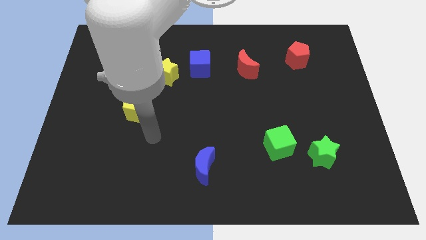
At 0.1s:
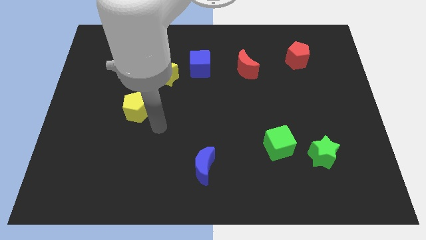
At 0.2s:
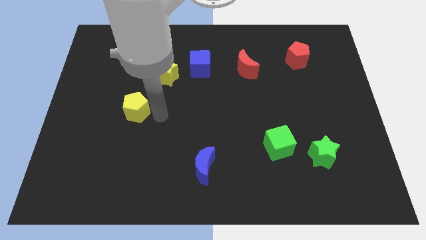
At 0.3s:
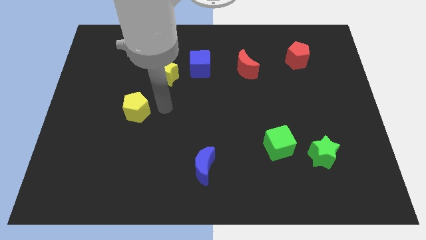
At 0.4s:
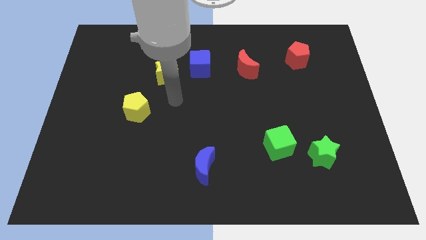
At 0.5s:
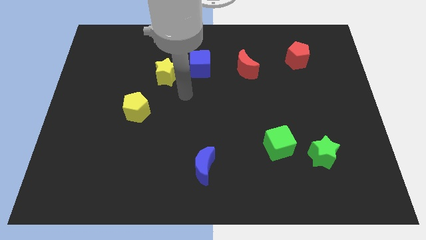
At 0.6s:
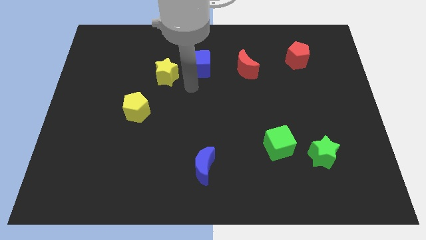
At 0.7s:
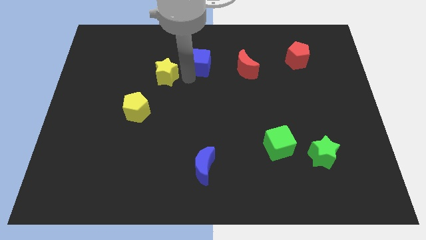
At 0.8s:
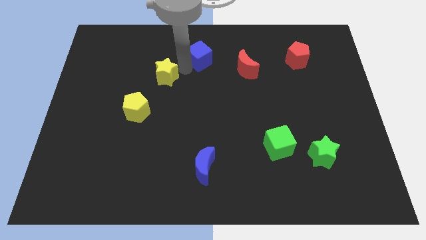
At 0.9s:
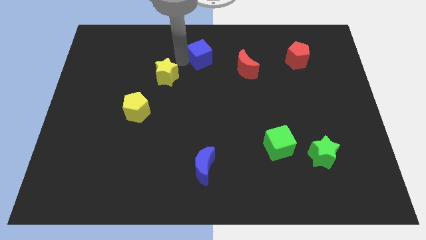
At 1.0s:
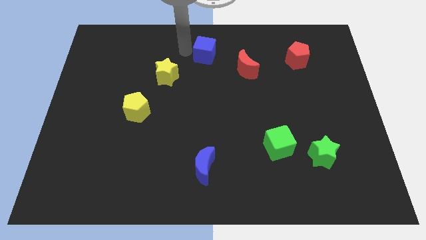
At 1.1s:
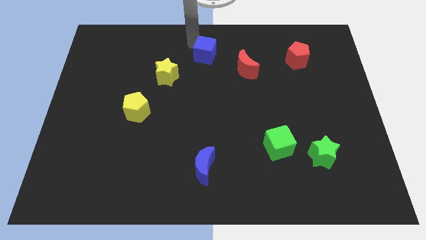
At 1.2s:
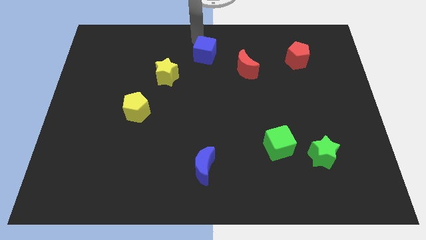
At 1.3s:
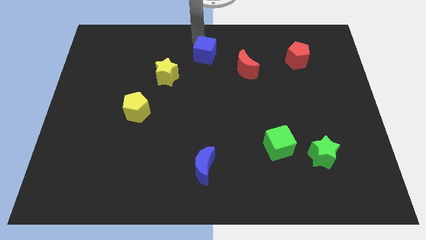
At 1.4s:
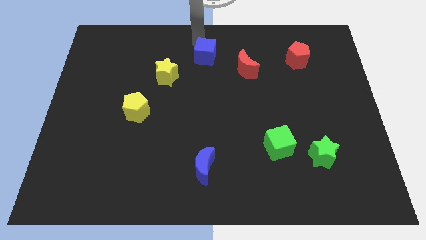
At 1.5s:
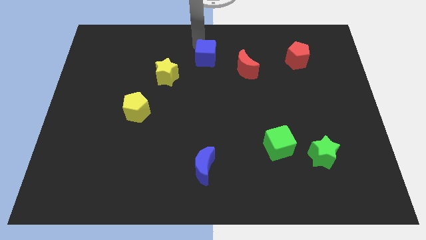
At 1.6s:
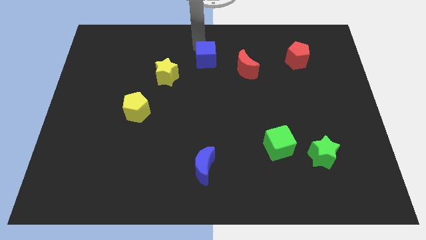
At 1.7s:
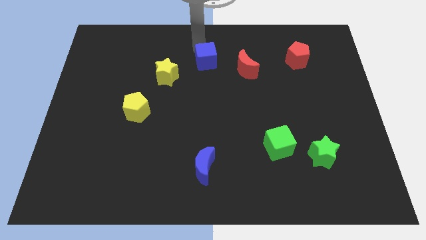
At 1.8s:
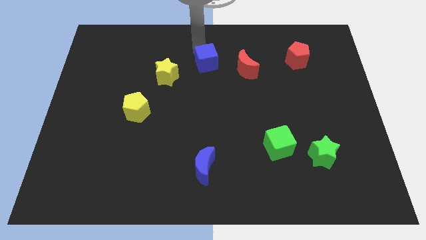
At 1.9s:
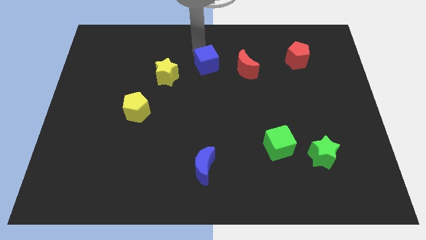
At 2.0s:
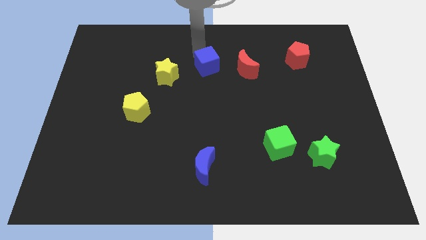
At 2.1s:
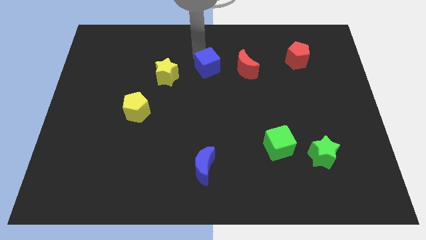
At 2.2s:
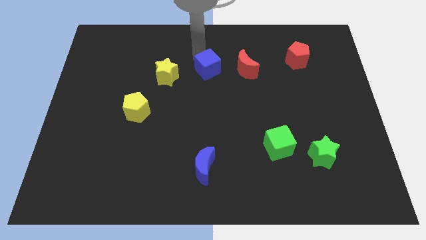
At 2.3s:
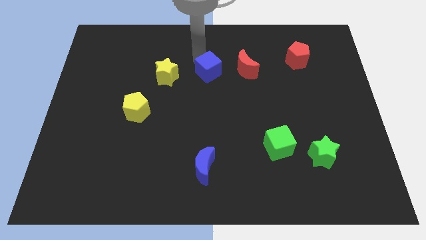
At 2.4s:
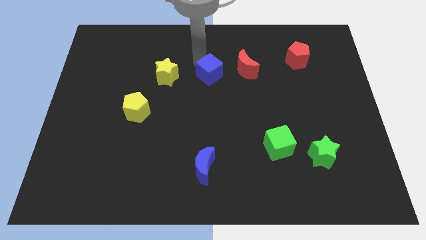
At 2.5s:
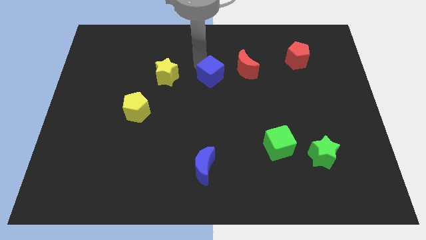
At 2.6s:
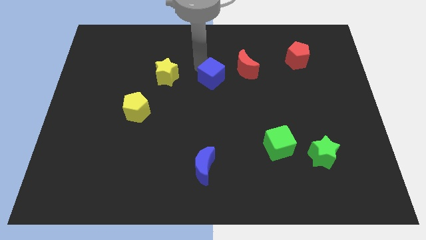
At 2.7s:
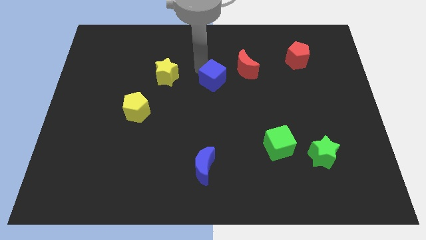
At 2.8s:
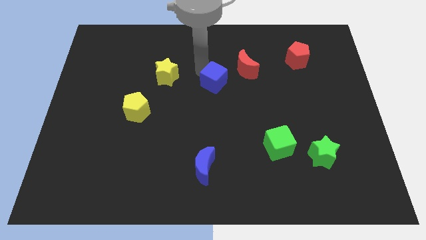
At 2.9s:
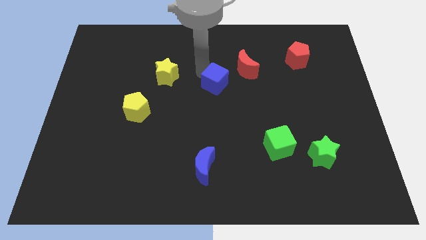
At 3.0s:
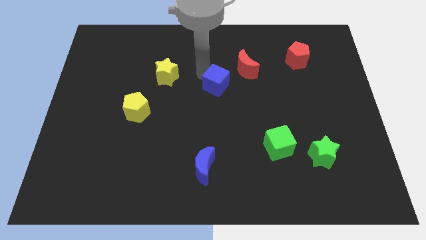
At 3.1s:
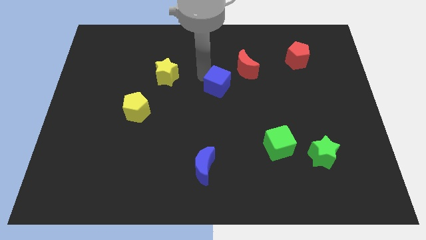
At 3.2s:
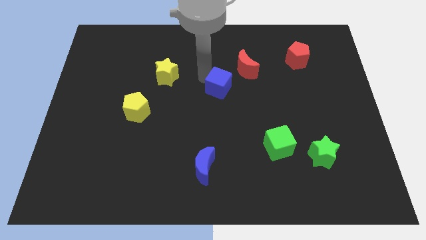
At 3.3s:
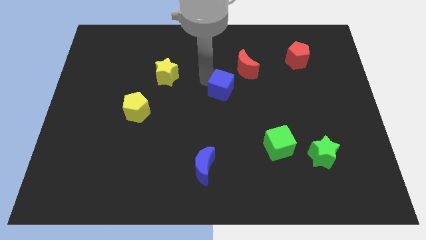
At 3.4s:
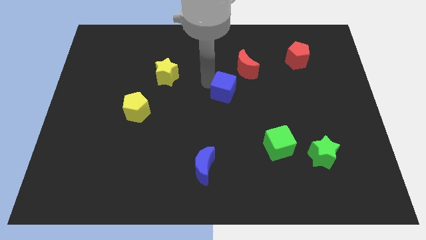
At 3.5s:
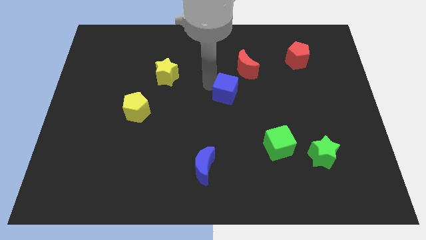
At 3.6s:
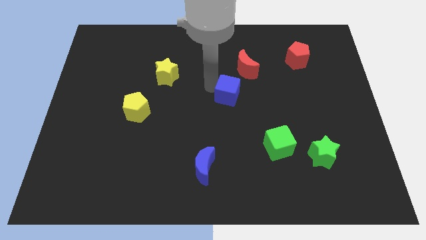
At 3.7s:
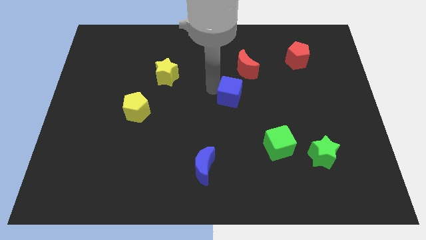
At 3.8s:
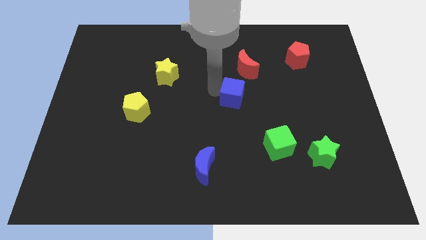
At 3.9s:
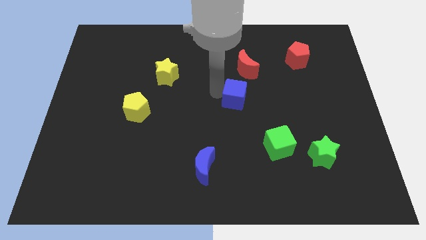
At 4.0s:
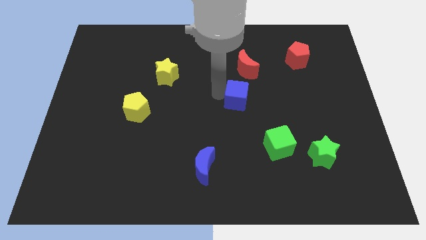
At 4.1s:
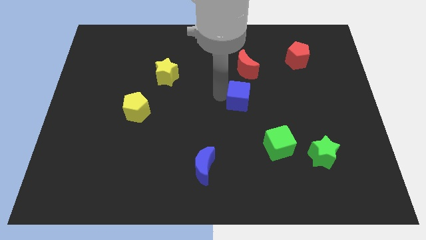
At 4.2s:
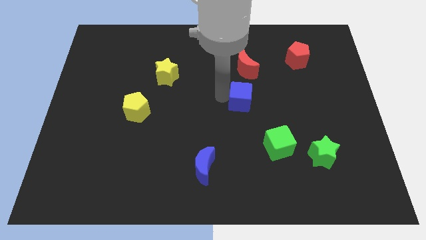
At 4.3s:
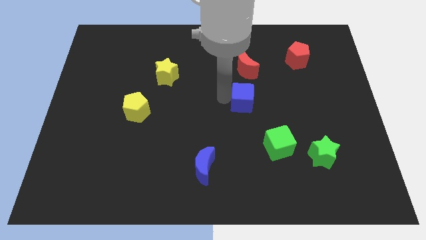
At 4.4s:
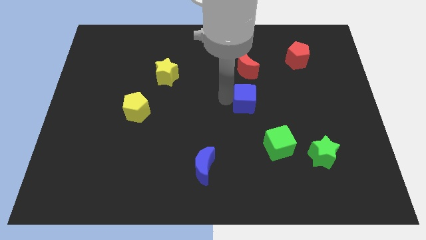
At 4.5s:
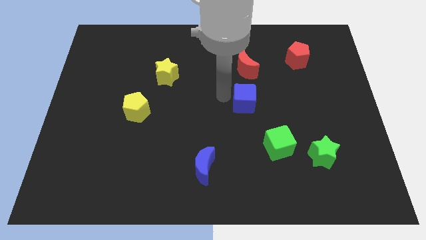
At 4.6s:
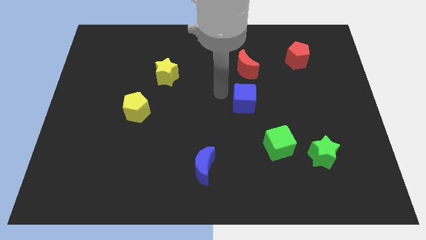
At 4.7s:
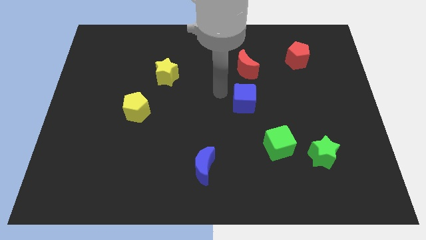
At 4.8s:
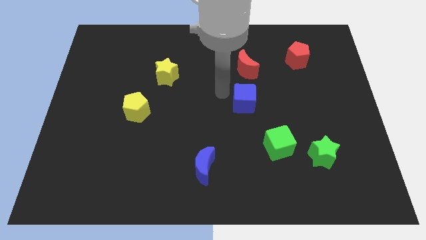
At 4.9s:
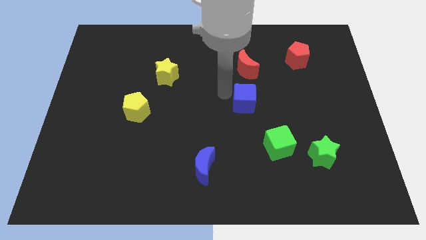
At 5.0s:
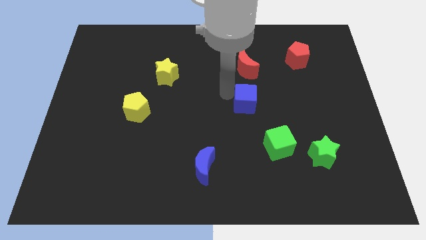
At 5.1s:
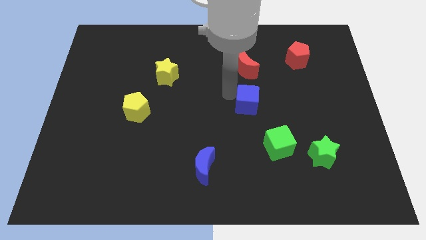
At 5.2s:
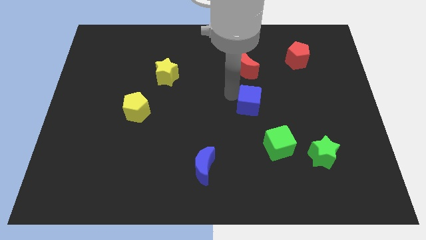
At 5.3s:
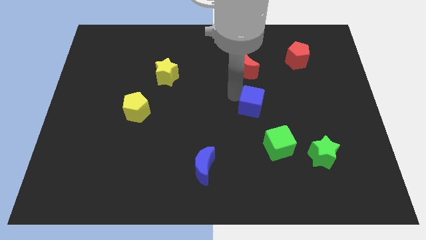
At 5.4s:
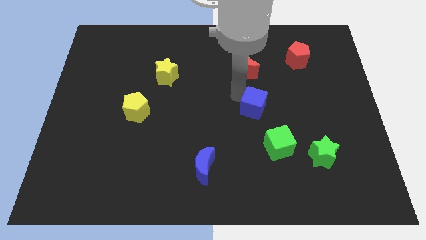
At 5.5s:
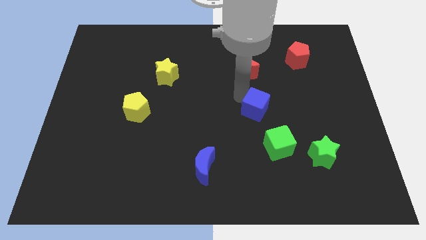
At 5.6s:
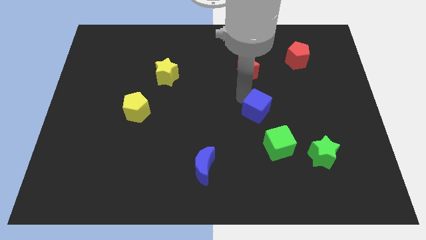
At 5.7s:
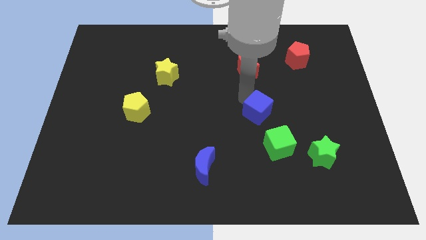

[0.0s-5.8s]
slide the blue cube diagonally down and to the right

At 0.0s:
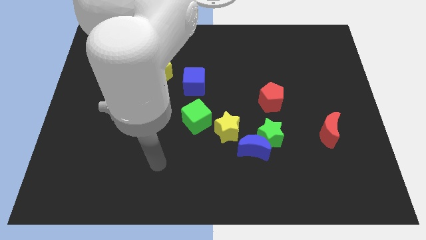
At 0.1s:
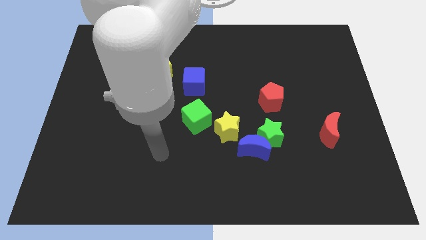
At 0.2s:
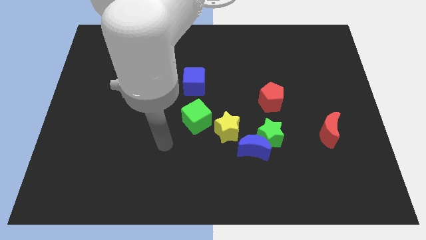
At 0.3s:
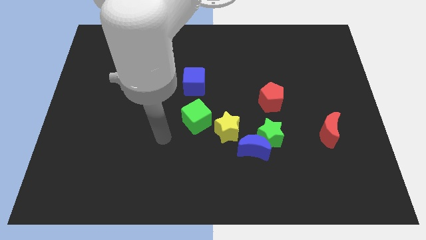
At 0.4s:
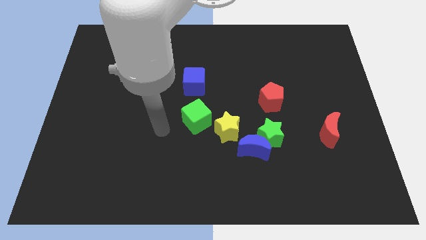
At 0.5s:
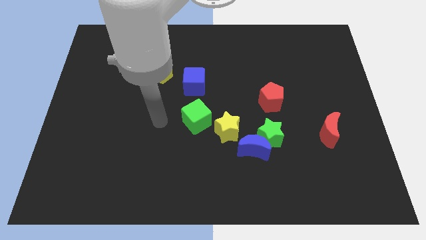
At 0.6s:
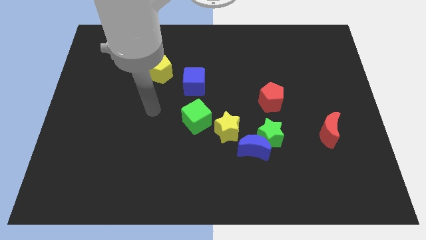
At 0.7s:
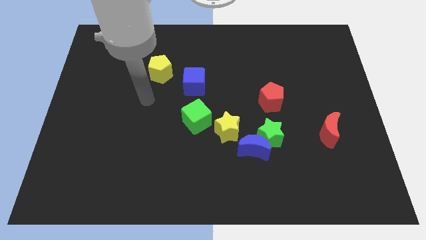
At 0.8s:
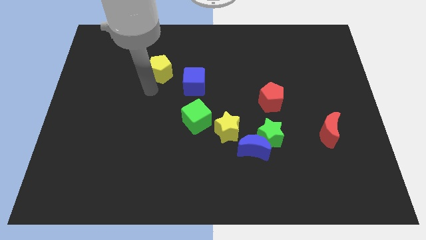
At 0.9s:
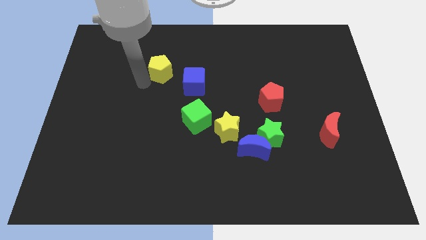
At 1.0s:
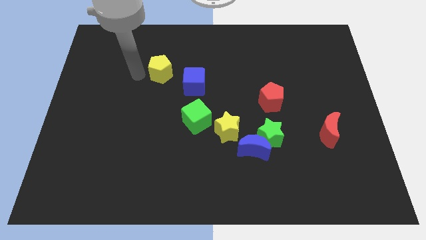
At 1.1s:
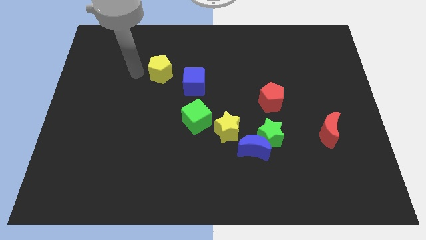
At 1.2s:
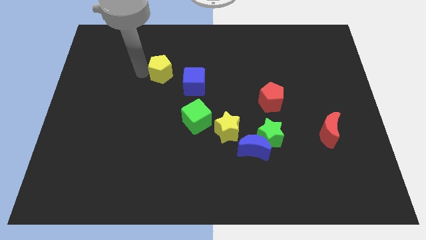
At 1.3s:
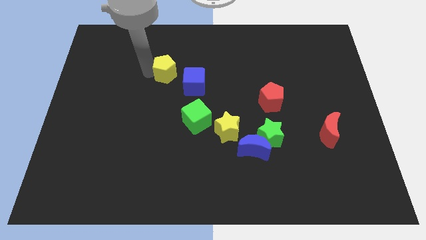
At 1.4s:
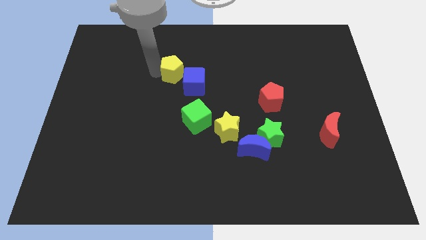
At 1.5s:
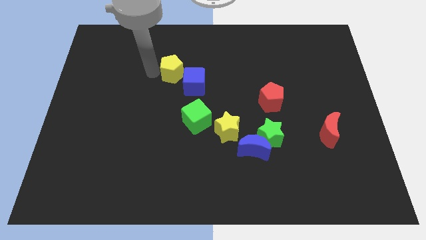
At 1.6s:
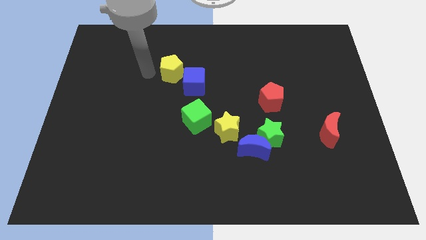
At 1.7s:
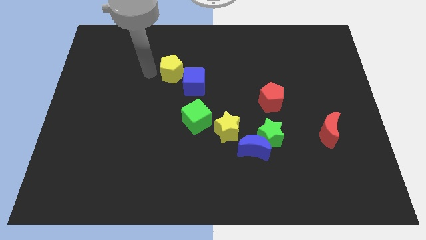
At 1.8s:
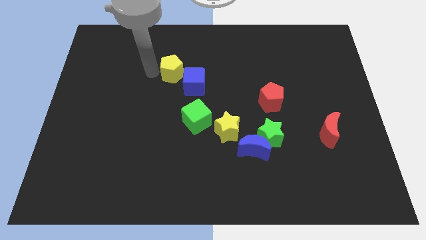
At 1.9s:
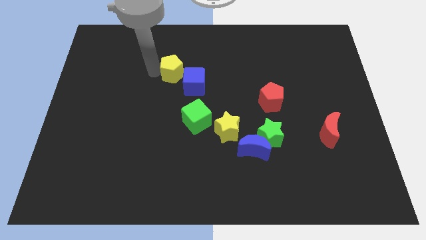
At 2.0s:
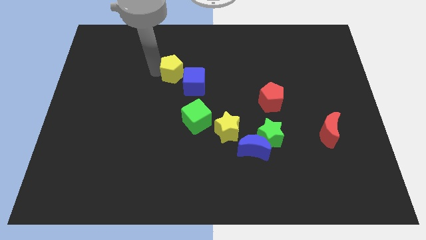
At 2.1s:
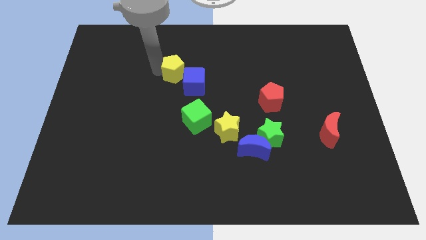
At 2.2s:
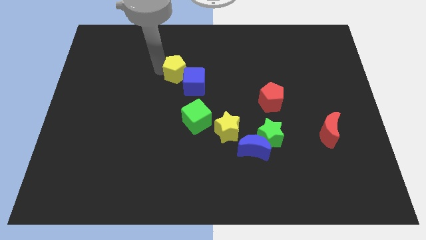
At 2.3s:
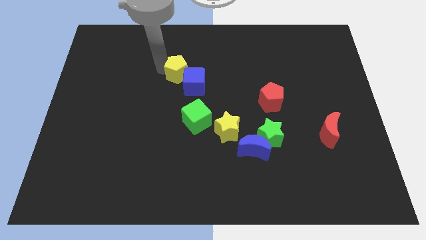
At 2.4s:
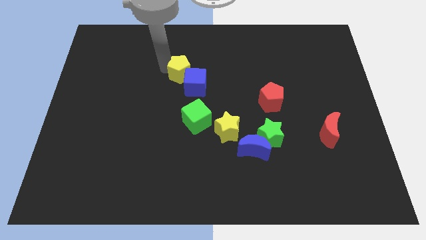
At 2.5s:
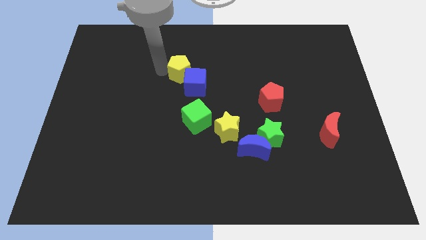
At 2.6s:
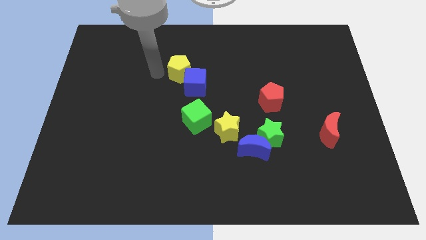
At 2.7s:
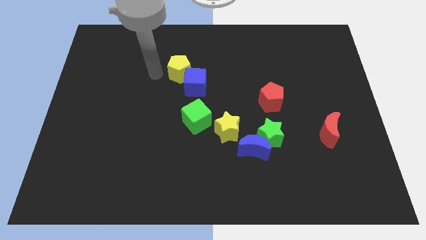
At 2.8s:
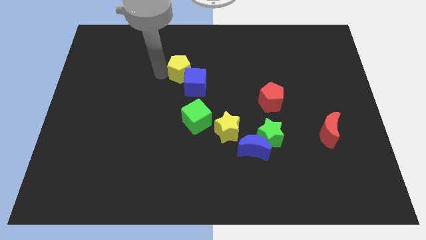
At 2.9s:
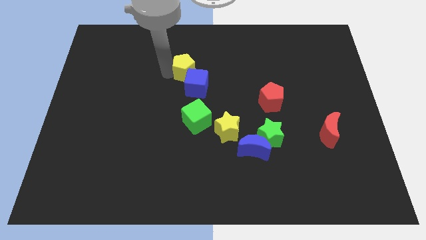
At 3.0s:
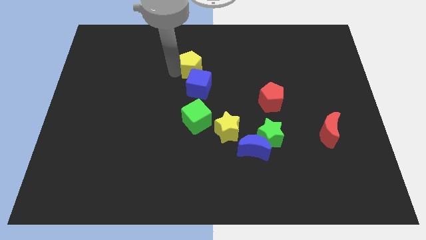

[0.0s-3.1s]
slightly move the yellow pentagon to the right
